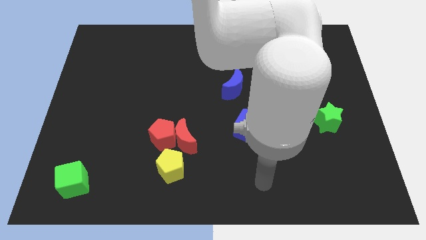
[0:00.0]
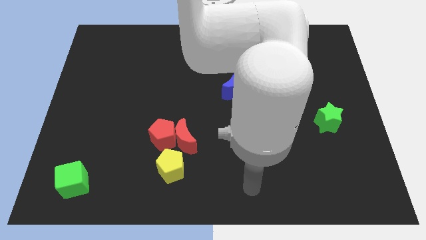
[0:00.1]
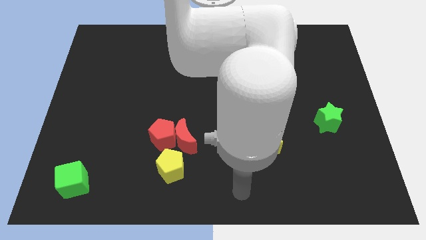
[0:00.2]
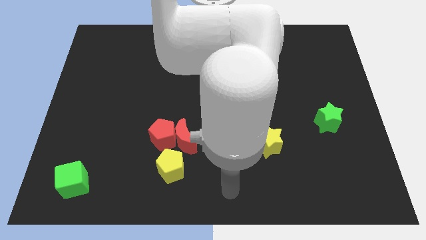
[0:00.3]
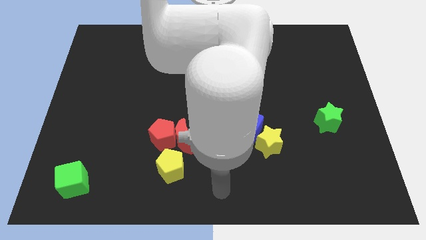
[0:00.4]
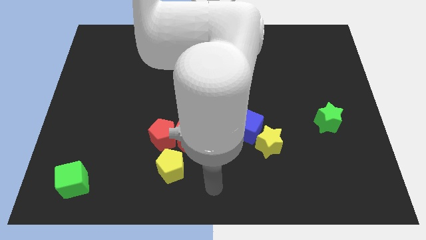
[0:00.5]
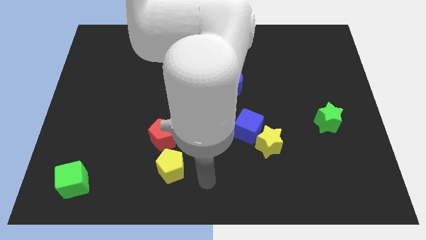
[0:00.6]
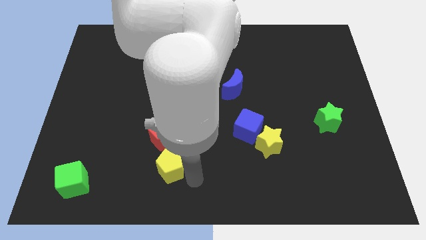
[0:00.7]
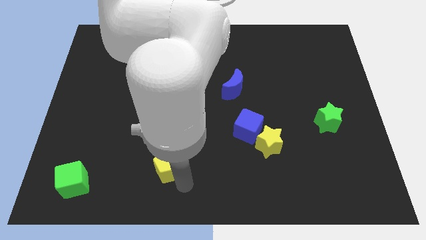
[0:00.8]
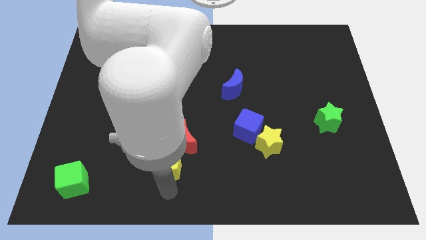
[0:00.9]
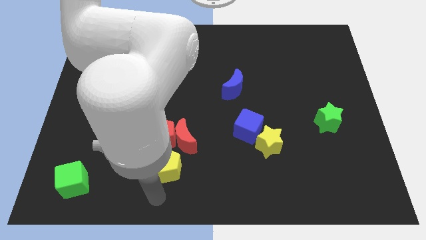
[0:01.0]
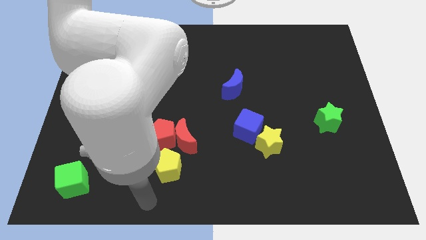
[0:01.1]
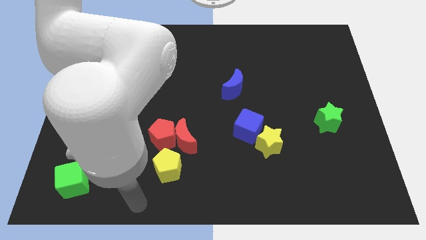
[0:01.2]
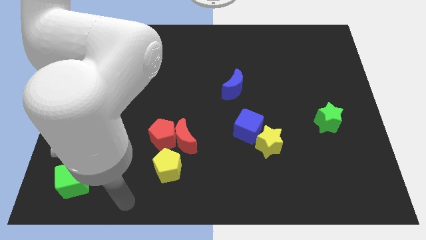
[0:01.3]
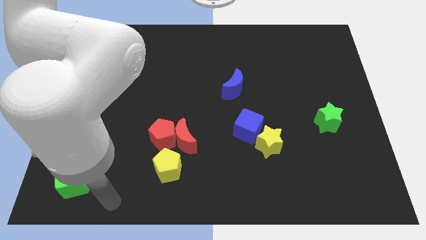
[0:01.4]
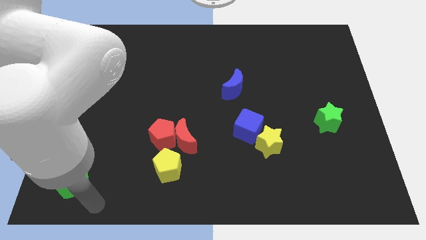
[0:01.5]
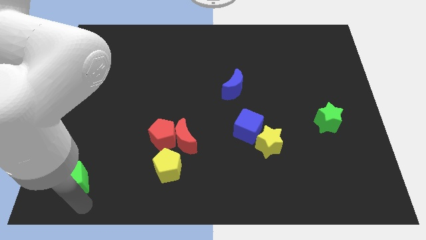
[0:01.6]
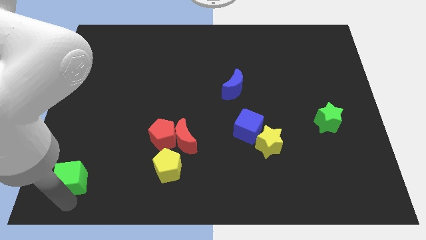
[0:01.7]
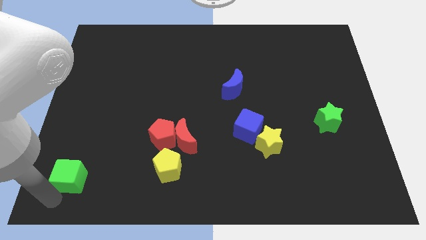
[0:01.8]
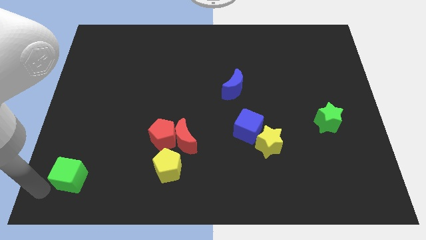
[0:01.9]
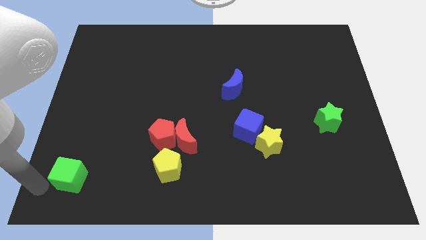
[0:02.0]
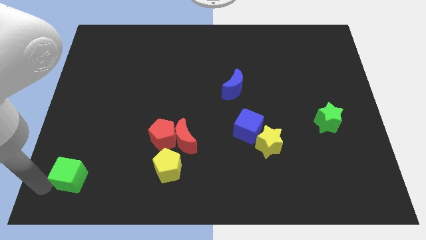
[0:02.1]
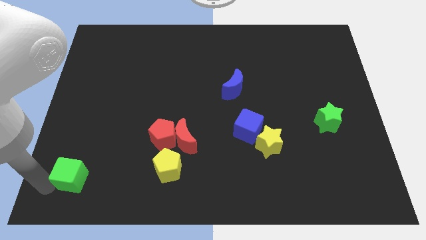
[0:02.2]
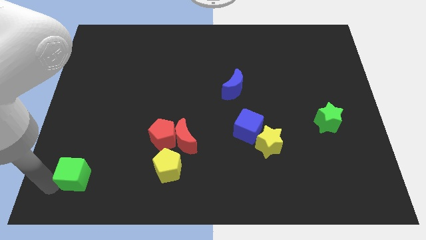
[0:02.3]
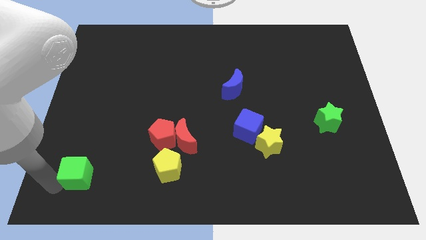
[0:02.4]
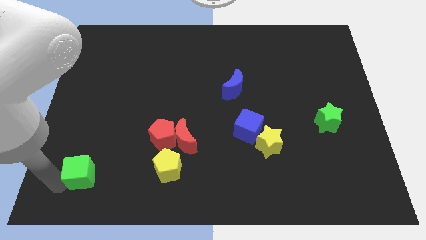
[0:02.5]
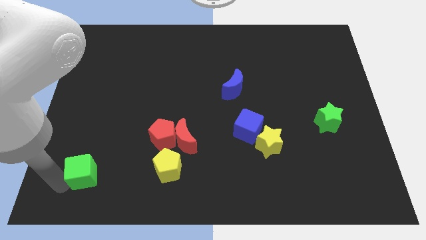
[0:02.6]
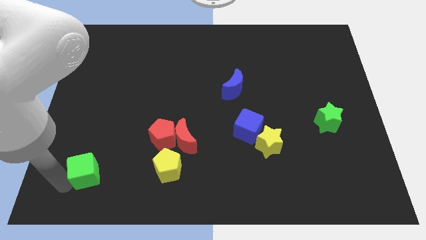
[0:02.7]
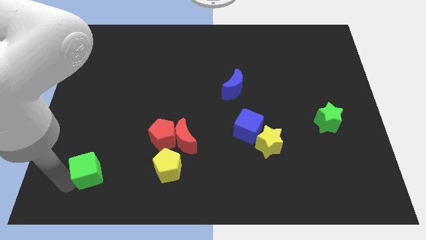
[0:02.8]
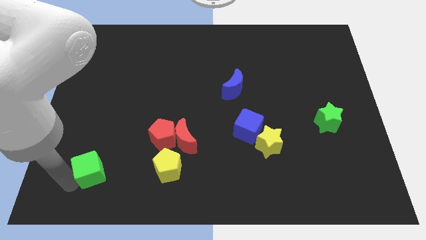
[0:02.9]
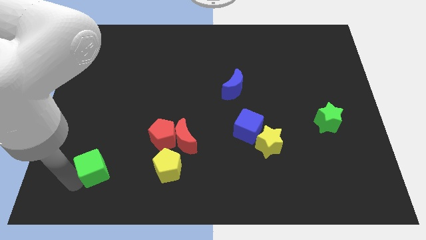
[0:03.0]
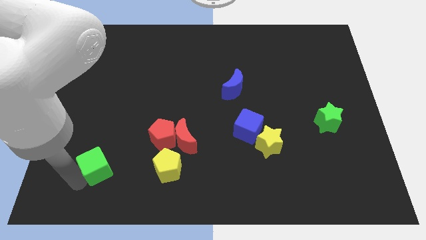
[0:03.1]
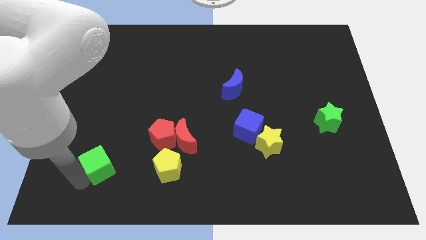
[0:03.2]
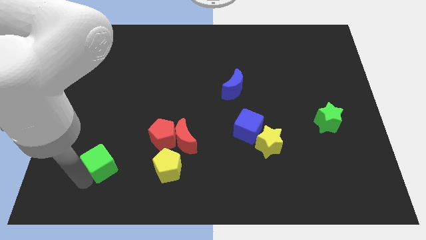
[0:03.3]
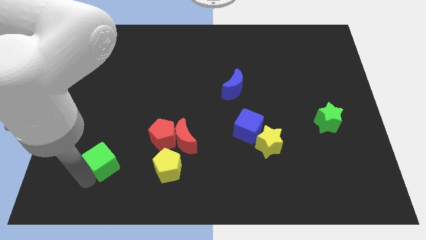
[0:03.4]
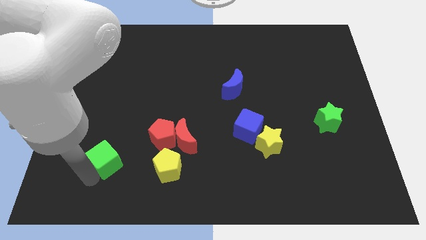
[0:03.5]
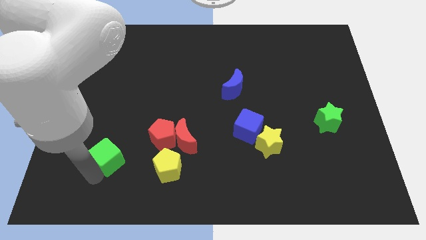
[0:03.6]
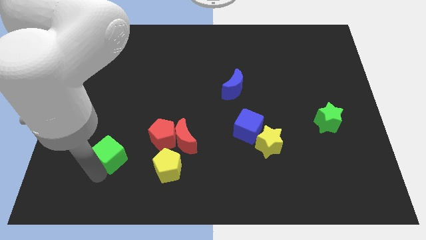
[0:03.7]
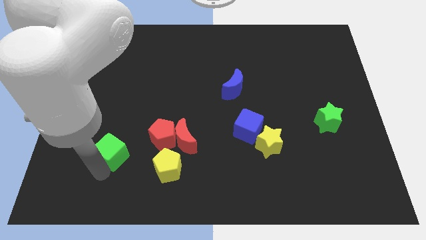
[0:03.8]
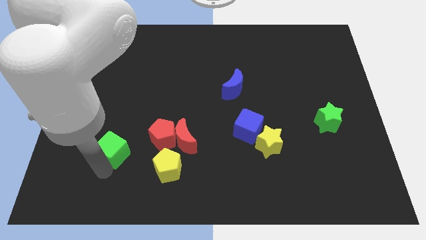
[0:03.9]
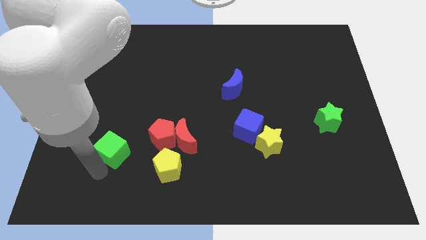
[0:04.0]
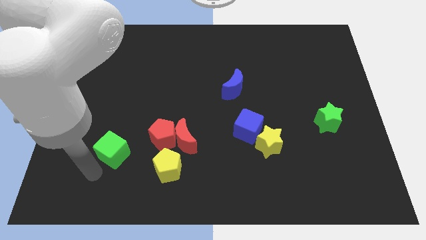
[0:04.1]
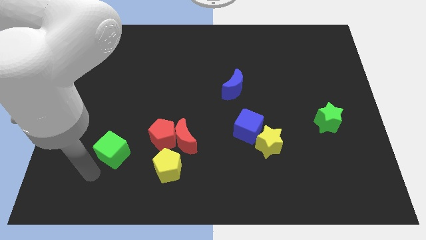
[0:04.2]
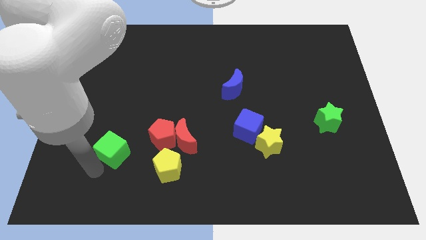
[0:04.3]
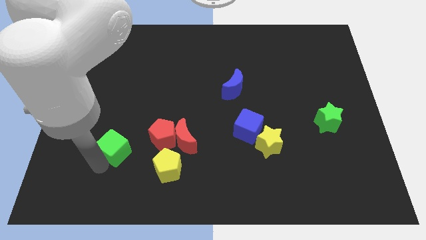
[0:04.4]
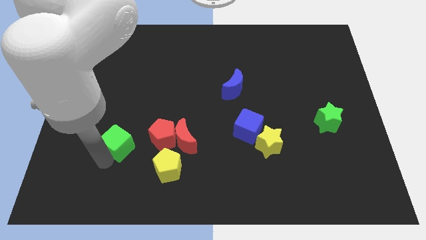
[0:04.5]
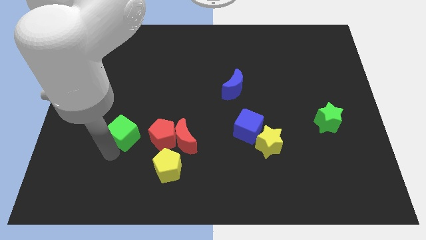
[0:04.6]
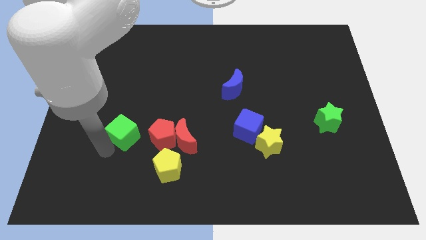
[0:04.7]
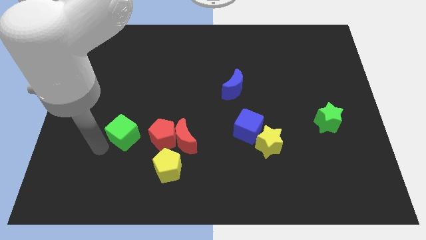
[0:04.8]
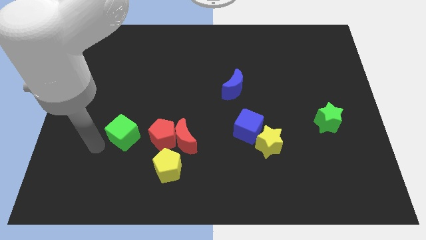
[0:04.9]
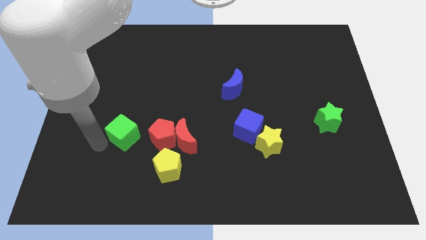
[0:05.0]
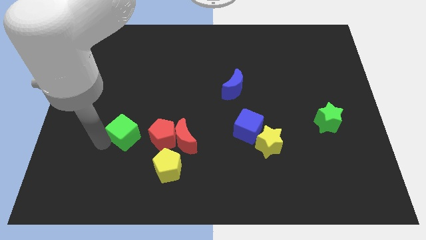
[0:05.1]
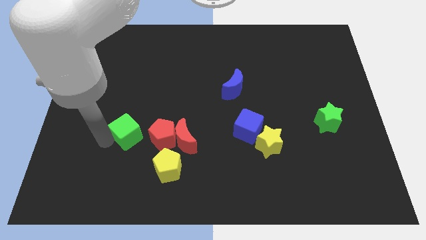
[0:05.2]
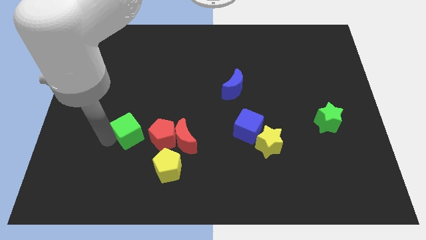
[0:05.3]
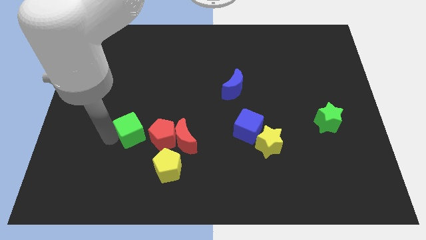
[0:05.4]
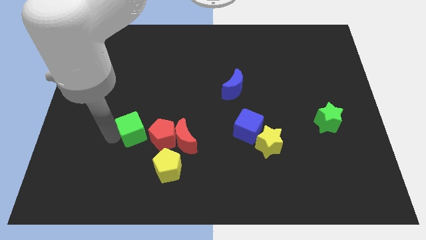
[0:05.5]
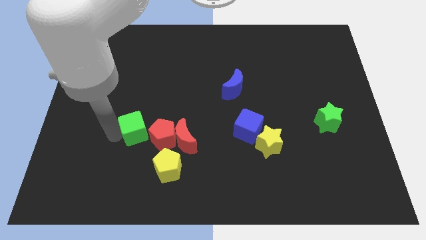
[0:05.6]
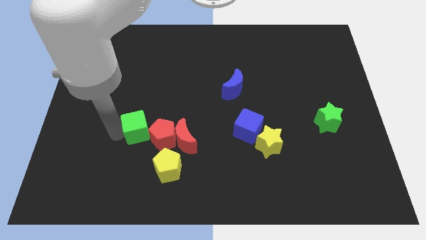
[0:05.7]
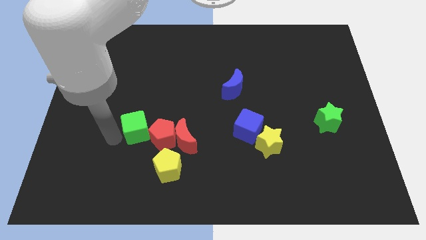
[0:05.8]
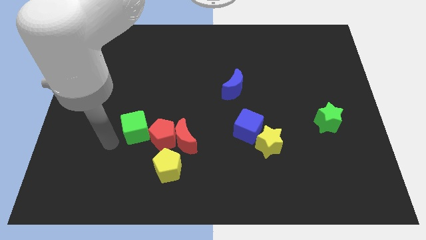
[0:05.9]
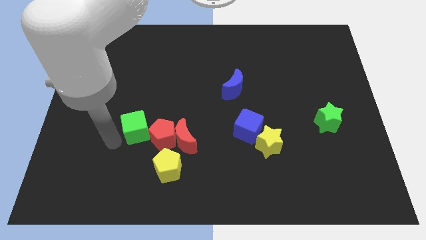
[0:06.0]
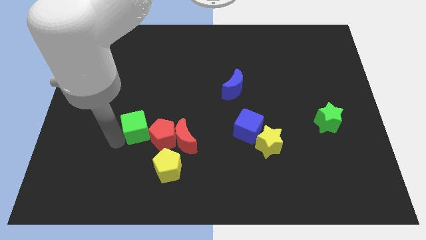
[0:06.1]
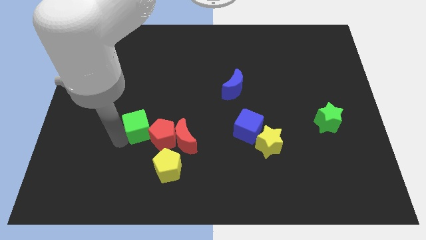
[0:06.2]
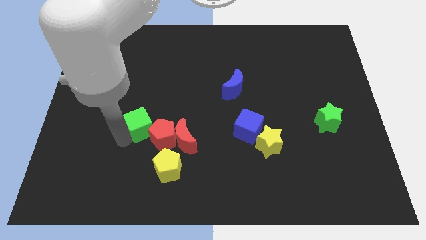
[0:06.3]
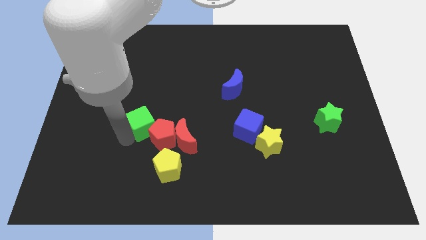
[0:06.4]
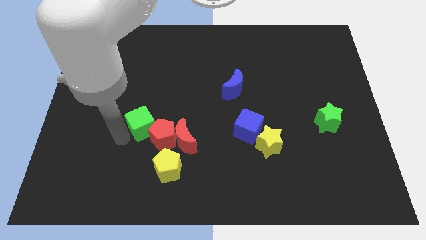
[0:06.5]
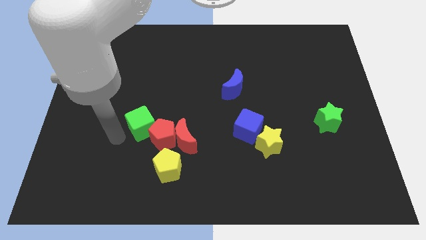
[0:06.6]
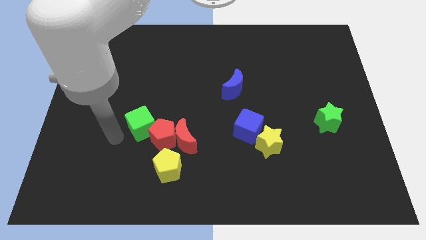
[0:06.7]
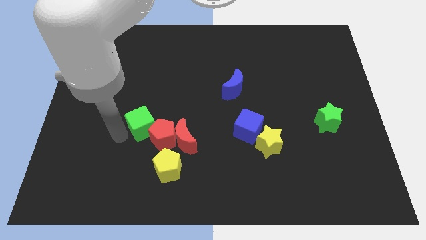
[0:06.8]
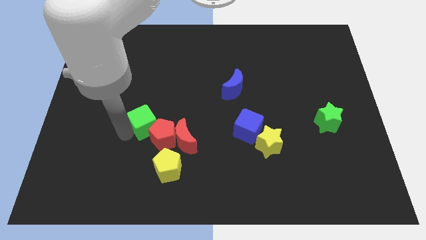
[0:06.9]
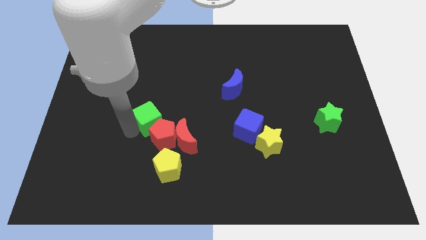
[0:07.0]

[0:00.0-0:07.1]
move the green cube upwards and to the right

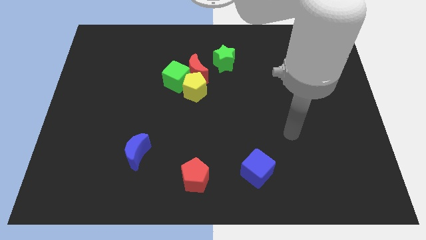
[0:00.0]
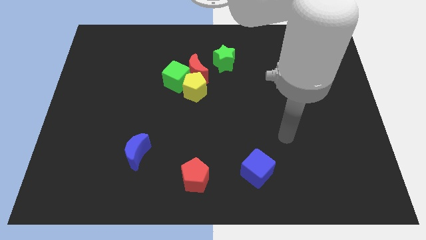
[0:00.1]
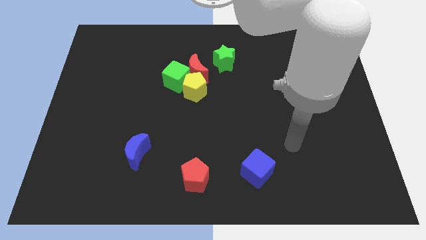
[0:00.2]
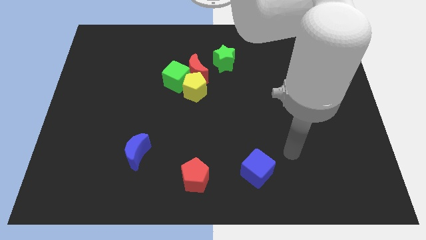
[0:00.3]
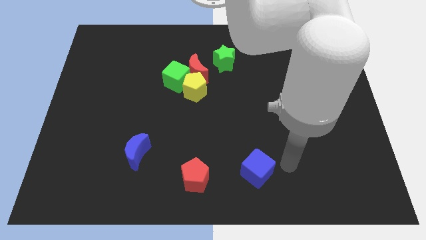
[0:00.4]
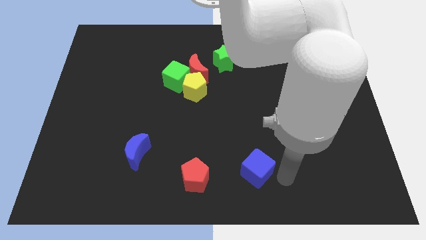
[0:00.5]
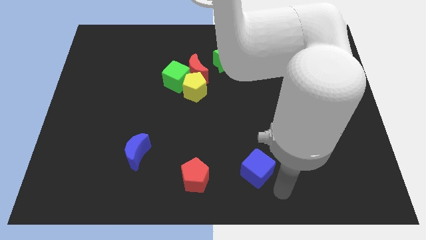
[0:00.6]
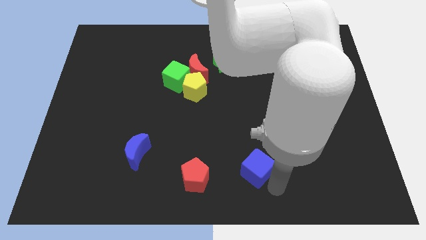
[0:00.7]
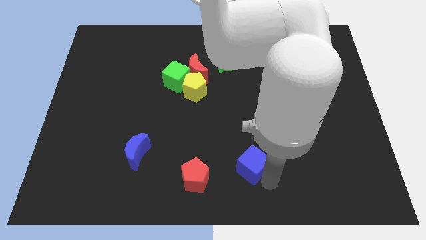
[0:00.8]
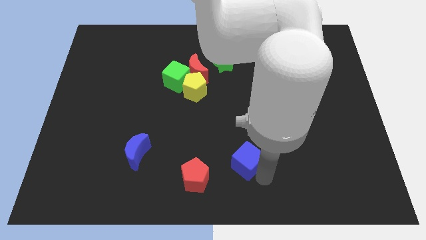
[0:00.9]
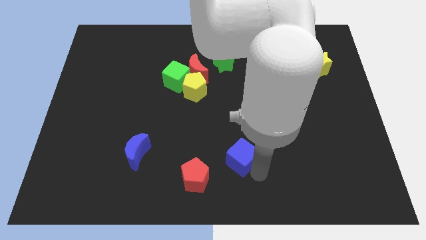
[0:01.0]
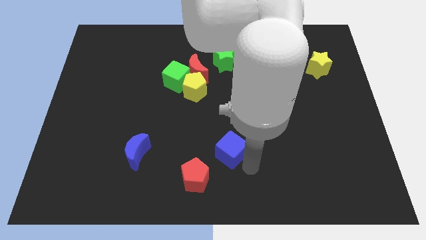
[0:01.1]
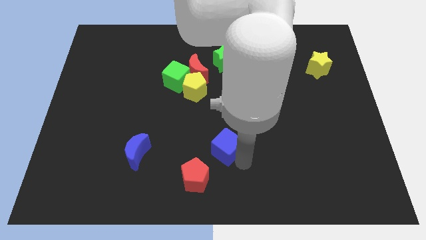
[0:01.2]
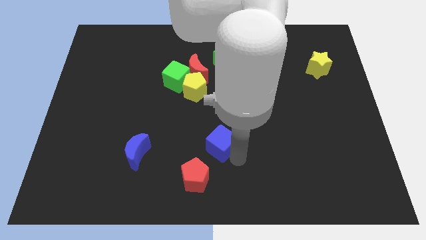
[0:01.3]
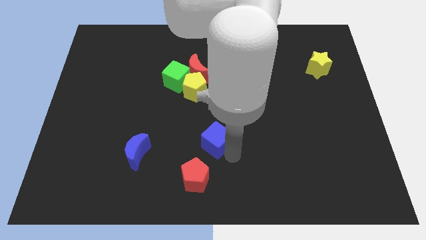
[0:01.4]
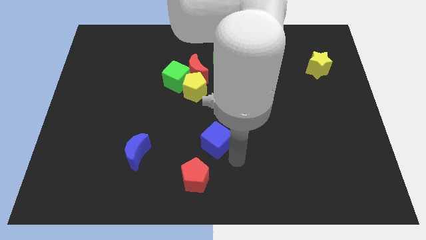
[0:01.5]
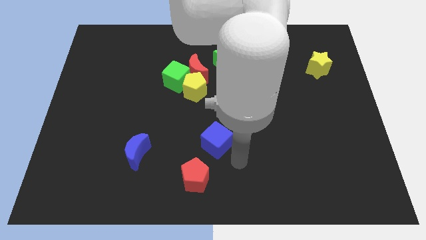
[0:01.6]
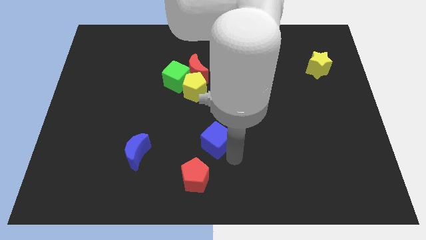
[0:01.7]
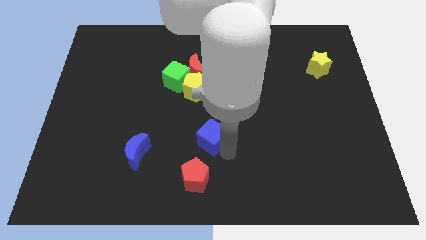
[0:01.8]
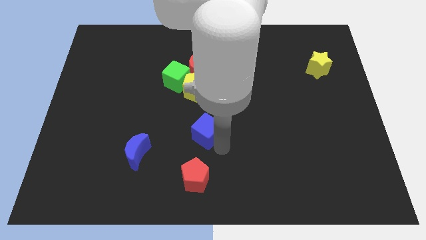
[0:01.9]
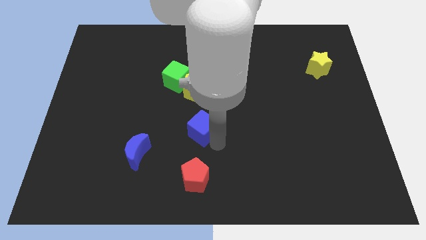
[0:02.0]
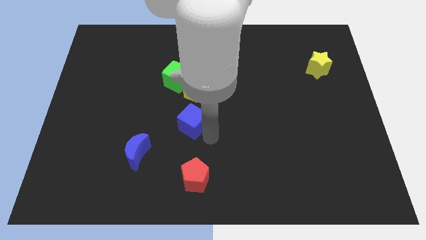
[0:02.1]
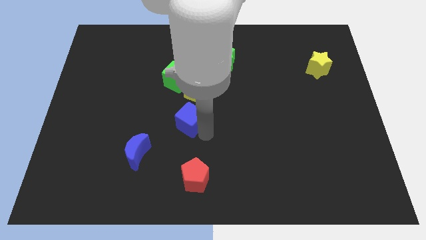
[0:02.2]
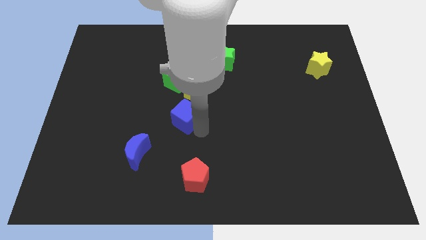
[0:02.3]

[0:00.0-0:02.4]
slide the blue cube diagonally upwards and left
